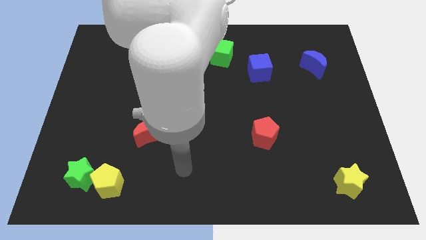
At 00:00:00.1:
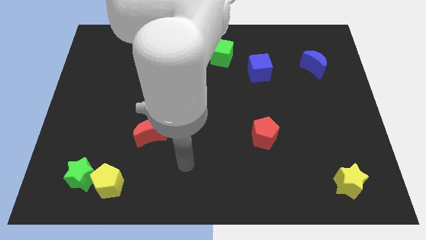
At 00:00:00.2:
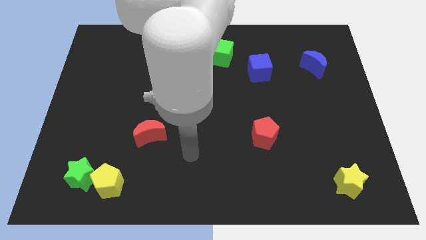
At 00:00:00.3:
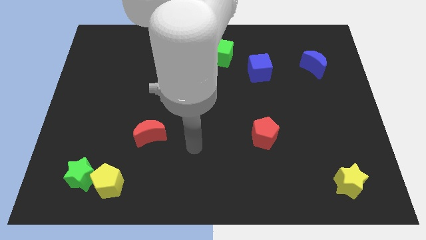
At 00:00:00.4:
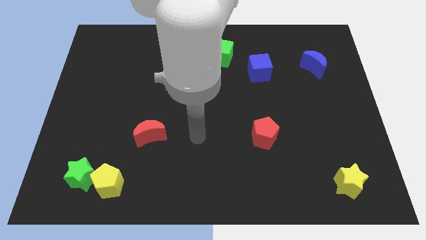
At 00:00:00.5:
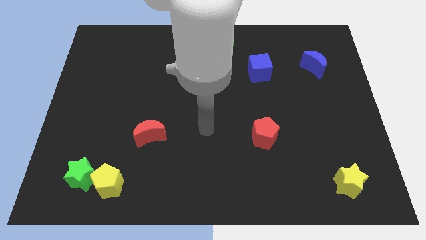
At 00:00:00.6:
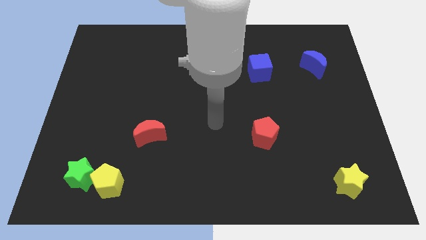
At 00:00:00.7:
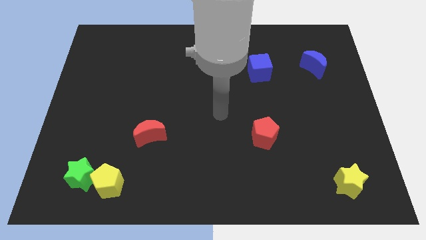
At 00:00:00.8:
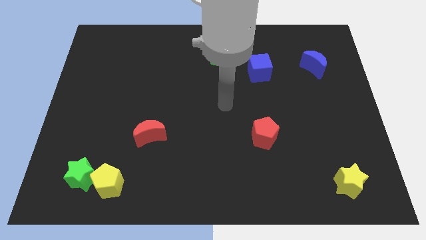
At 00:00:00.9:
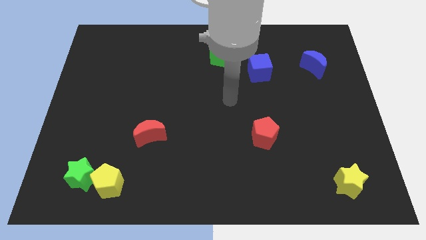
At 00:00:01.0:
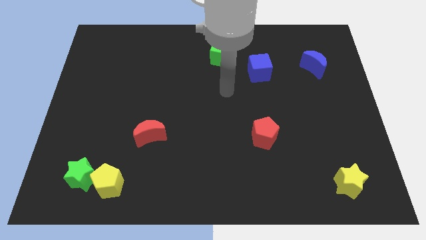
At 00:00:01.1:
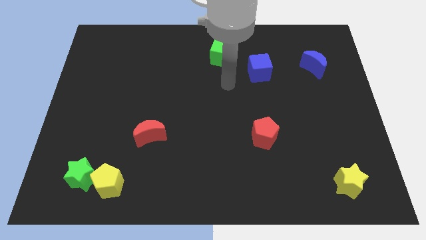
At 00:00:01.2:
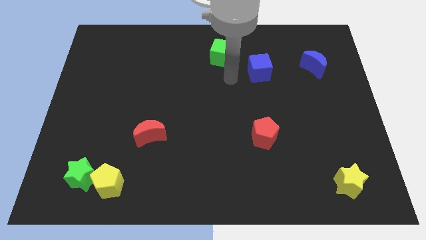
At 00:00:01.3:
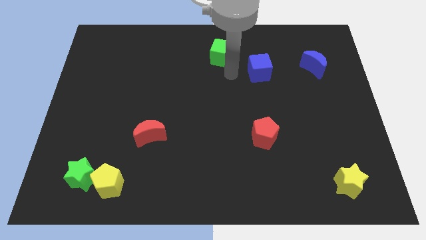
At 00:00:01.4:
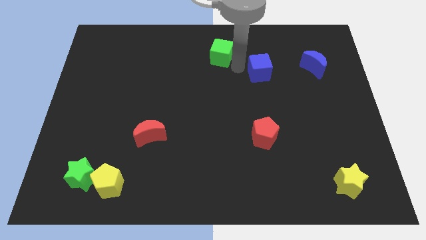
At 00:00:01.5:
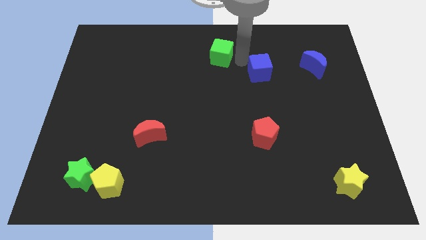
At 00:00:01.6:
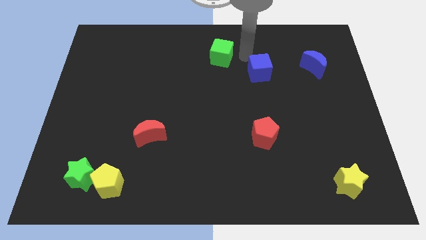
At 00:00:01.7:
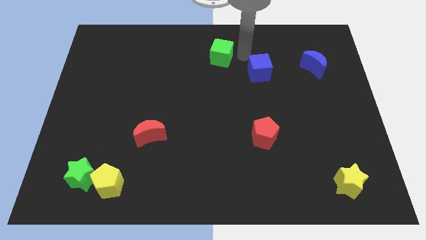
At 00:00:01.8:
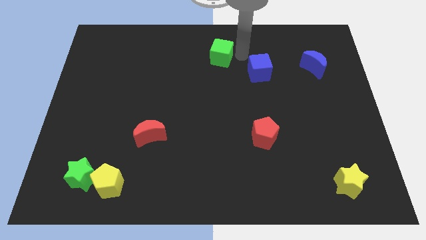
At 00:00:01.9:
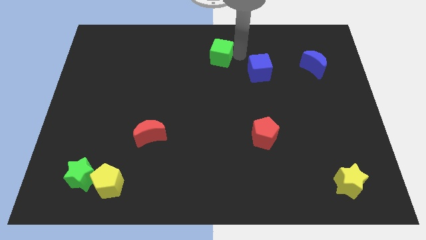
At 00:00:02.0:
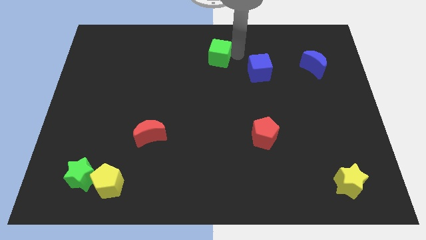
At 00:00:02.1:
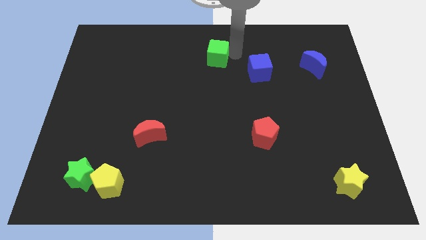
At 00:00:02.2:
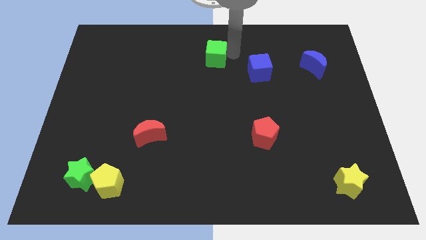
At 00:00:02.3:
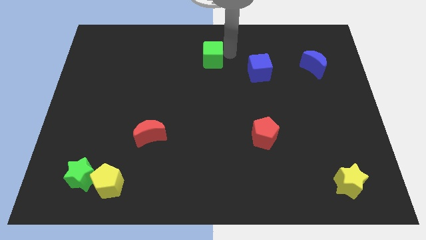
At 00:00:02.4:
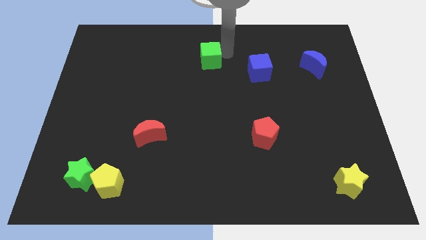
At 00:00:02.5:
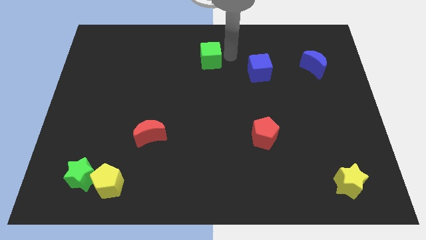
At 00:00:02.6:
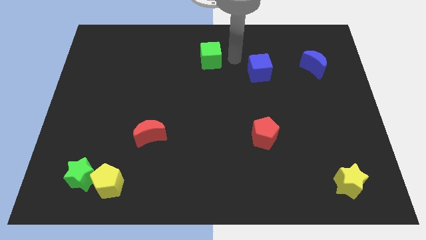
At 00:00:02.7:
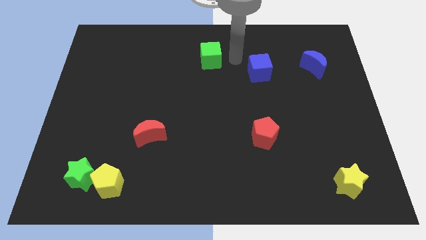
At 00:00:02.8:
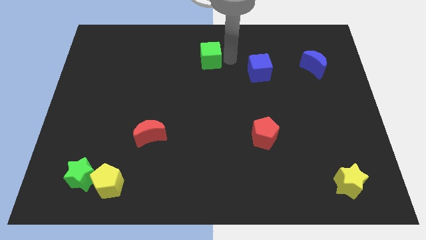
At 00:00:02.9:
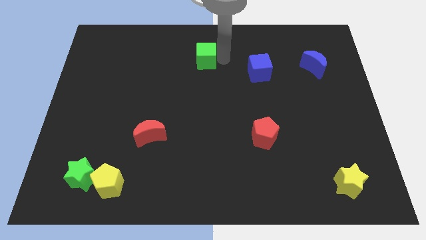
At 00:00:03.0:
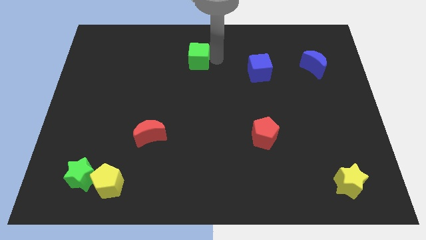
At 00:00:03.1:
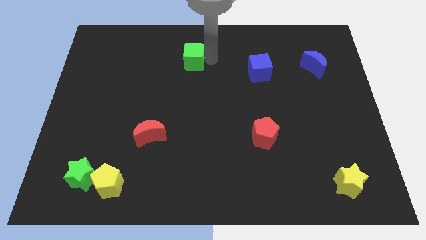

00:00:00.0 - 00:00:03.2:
move the green cube to the left a little bit

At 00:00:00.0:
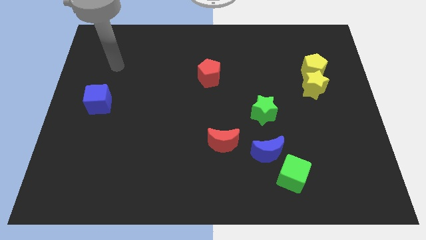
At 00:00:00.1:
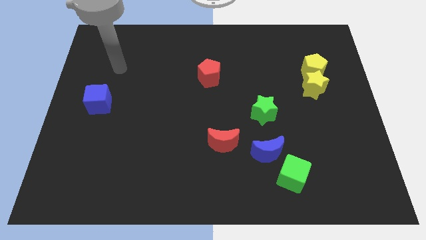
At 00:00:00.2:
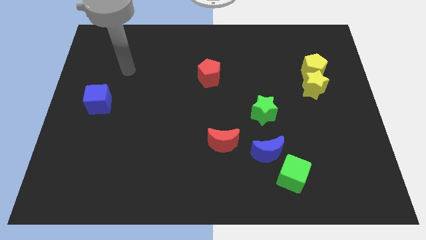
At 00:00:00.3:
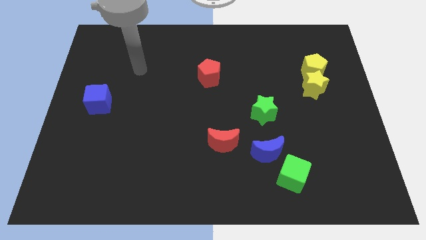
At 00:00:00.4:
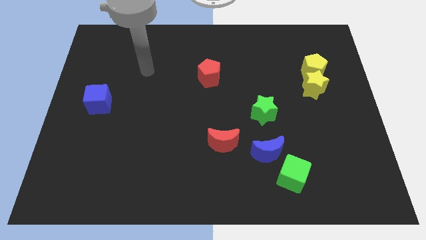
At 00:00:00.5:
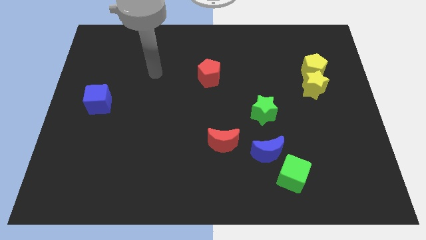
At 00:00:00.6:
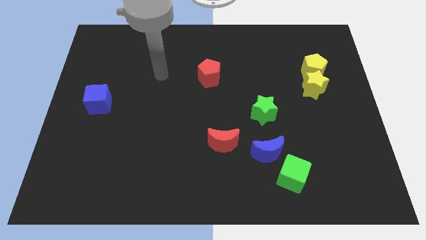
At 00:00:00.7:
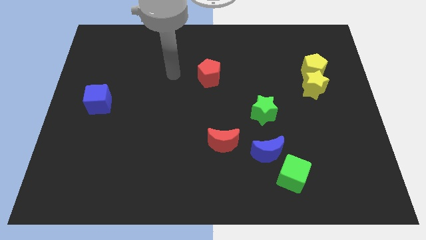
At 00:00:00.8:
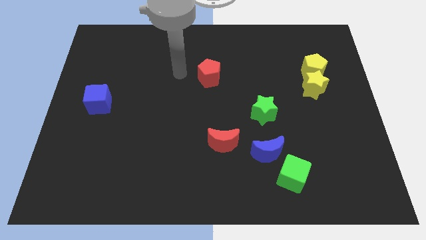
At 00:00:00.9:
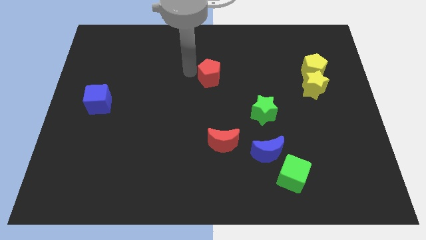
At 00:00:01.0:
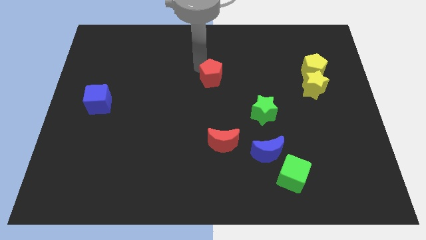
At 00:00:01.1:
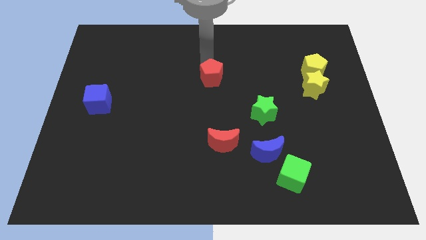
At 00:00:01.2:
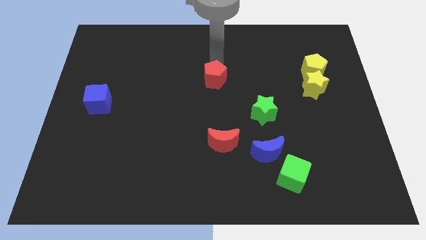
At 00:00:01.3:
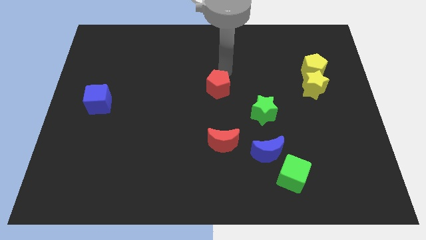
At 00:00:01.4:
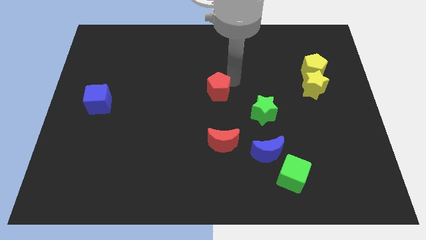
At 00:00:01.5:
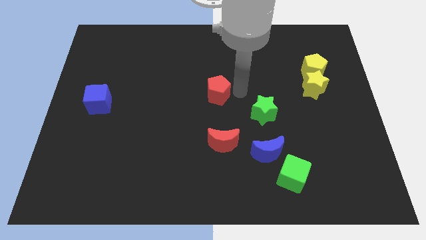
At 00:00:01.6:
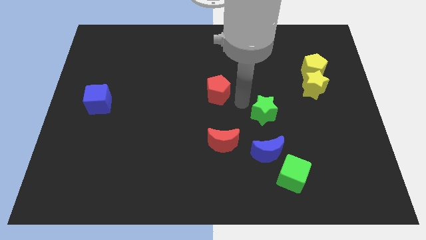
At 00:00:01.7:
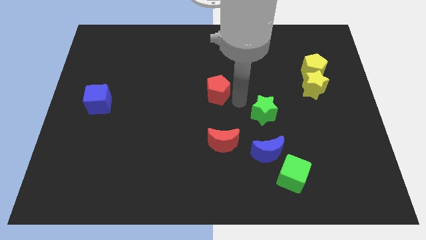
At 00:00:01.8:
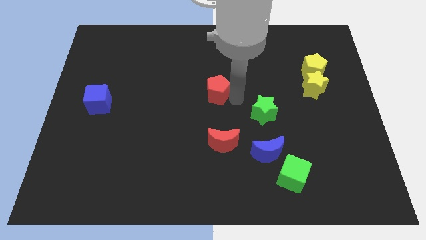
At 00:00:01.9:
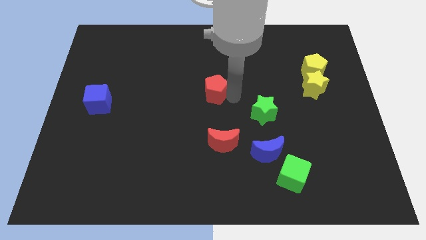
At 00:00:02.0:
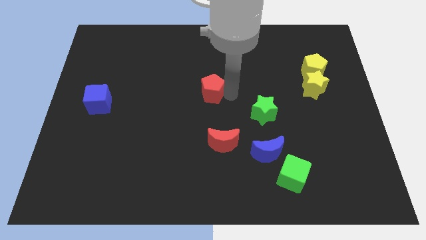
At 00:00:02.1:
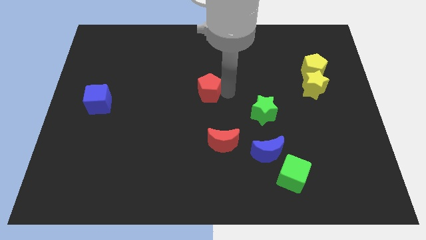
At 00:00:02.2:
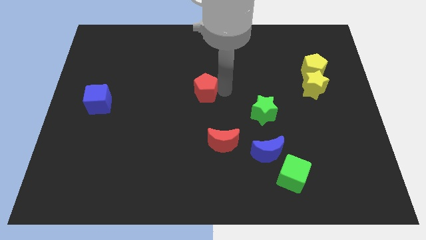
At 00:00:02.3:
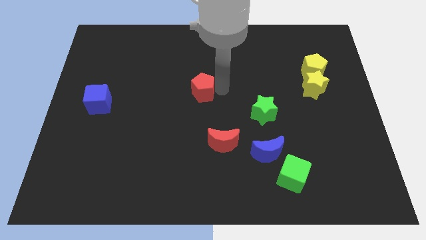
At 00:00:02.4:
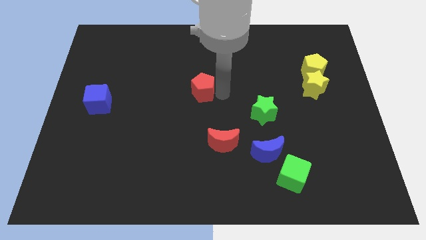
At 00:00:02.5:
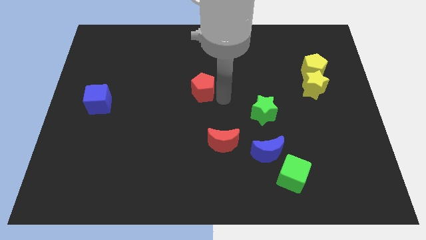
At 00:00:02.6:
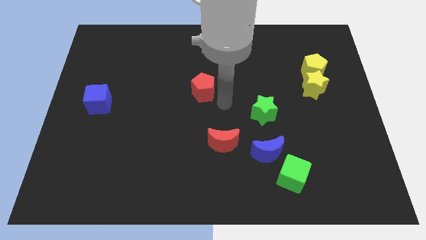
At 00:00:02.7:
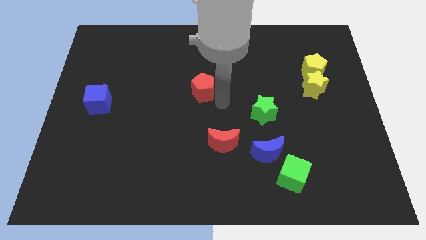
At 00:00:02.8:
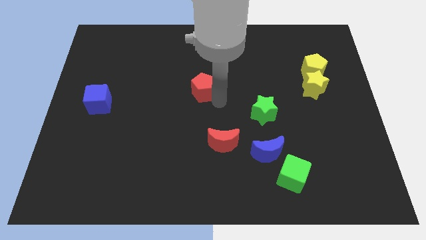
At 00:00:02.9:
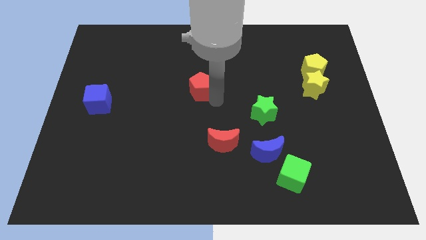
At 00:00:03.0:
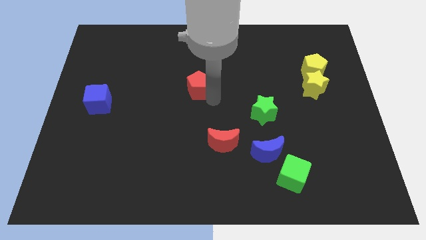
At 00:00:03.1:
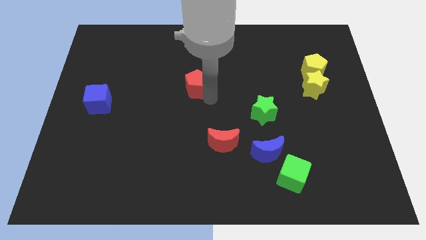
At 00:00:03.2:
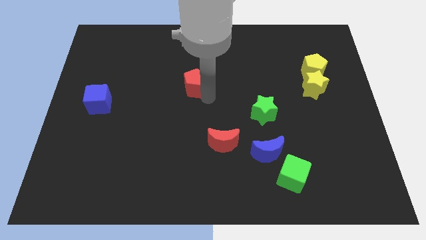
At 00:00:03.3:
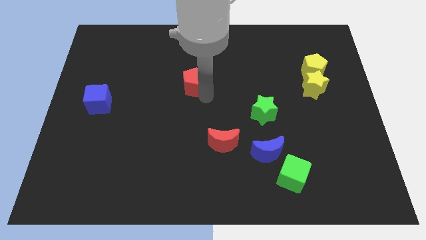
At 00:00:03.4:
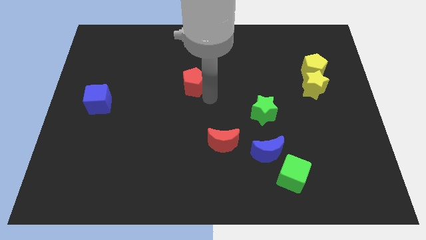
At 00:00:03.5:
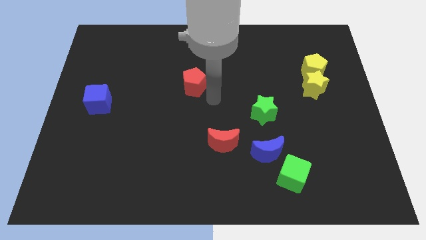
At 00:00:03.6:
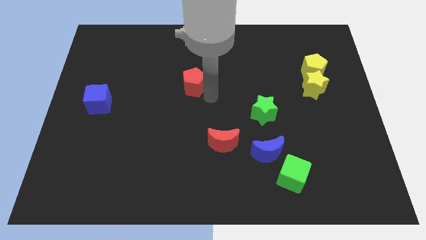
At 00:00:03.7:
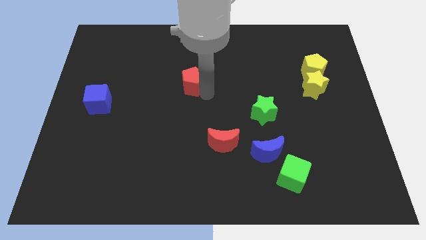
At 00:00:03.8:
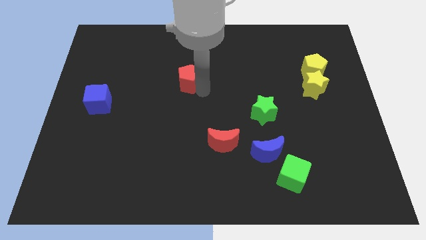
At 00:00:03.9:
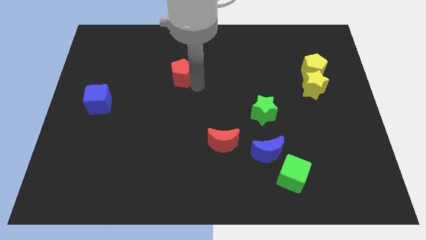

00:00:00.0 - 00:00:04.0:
push the red pentagon somewhat left

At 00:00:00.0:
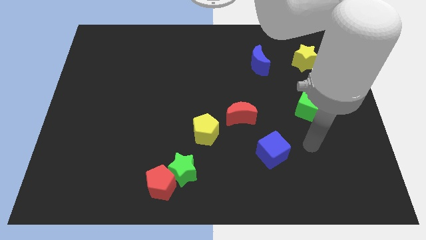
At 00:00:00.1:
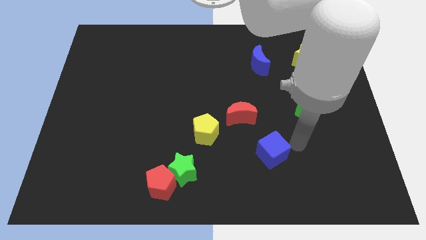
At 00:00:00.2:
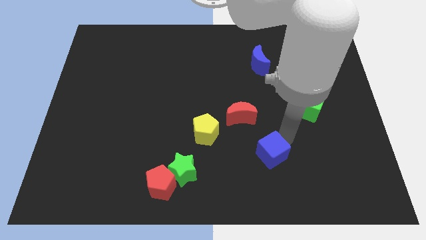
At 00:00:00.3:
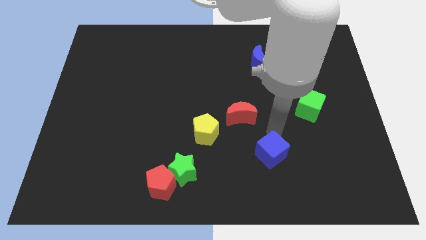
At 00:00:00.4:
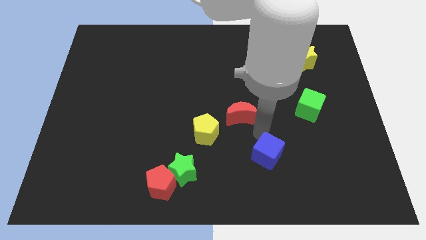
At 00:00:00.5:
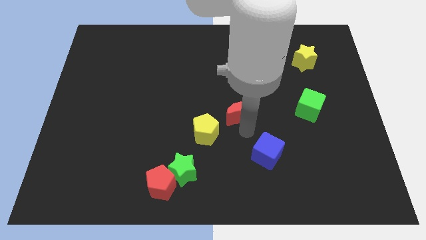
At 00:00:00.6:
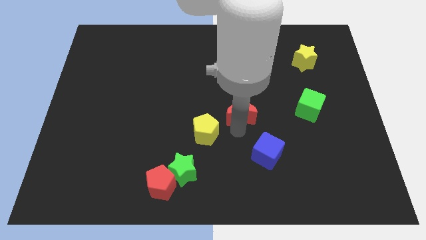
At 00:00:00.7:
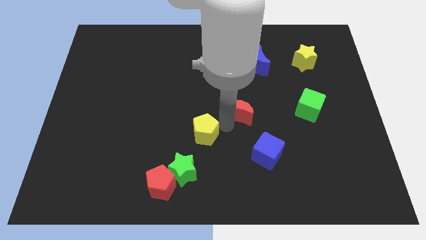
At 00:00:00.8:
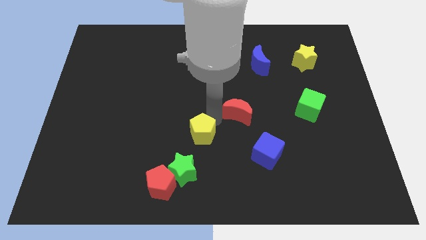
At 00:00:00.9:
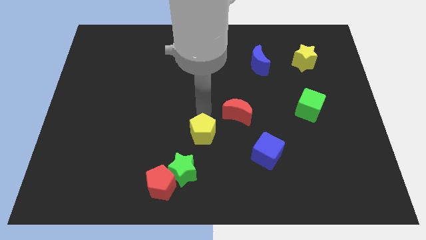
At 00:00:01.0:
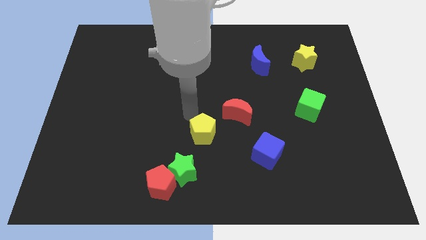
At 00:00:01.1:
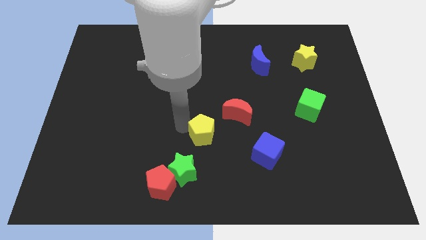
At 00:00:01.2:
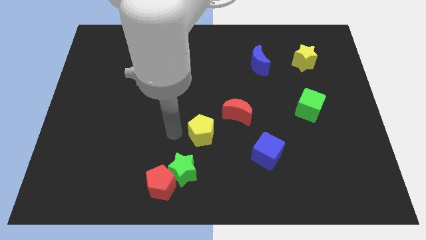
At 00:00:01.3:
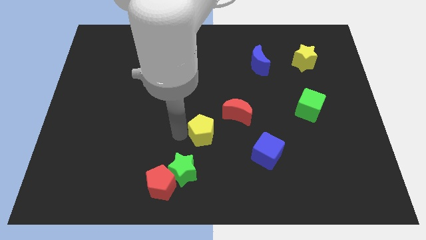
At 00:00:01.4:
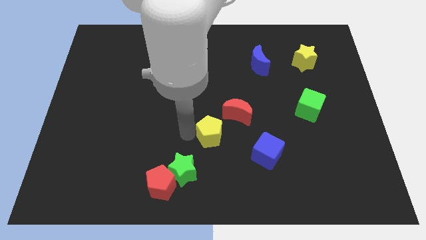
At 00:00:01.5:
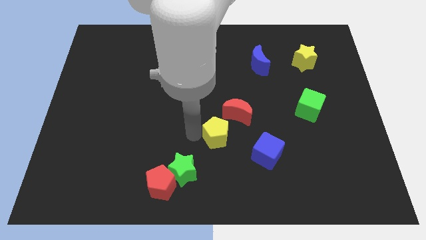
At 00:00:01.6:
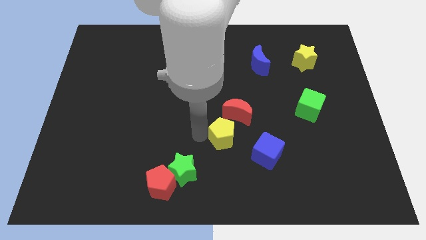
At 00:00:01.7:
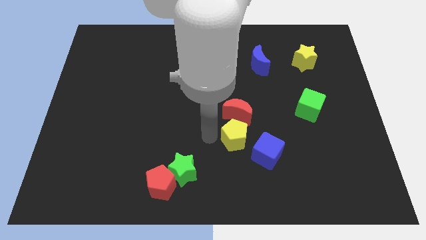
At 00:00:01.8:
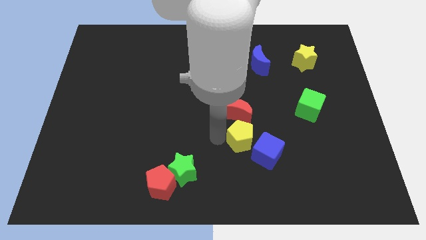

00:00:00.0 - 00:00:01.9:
move the yellow pentagon slightly right
